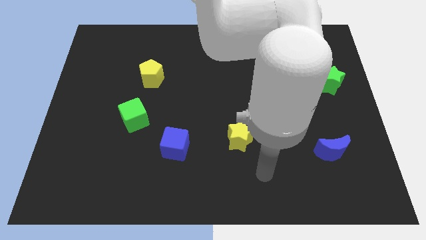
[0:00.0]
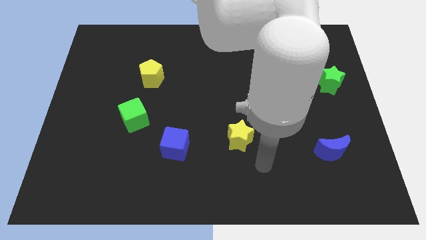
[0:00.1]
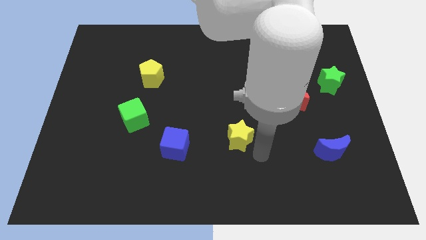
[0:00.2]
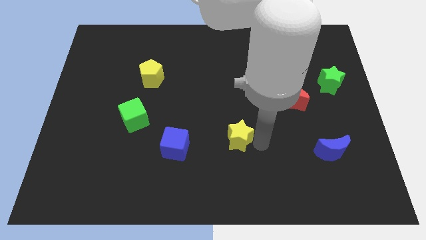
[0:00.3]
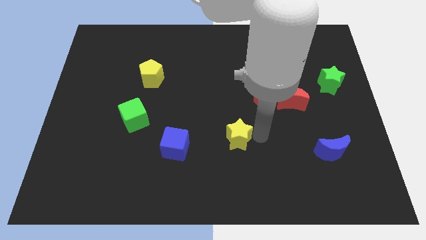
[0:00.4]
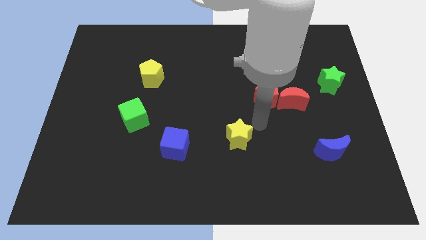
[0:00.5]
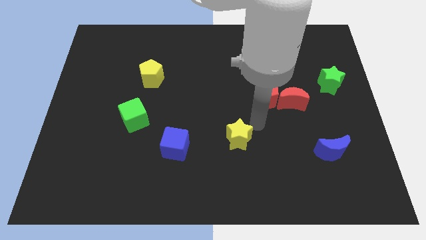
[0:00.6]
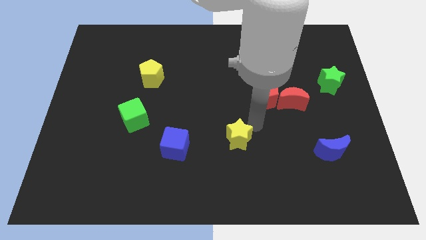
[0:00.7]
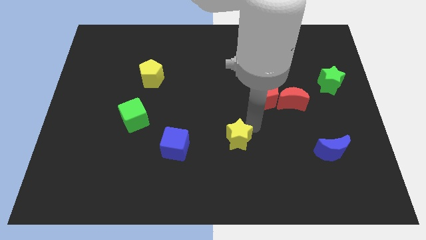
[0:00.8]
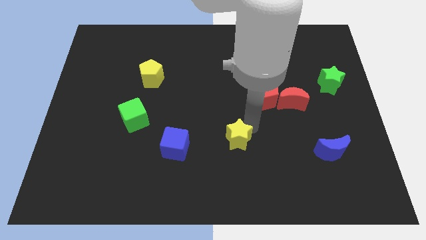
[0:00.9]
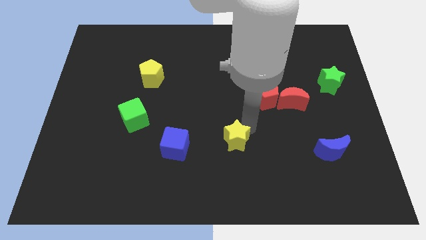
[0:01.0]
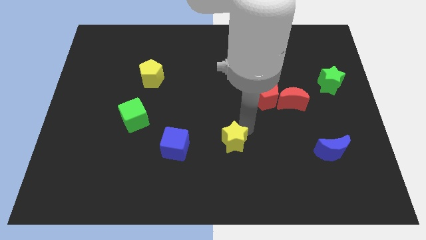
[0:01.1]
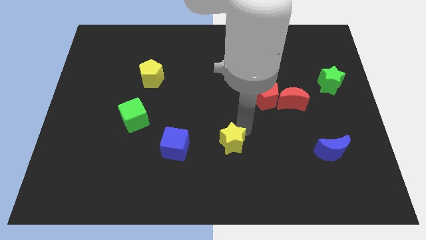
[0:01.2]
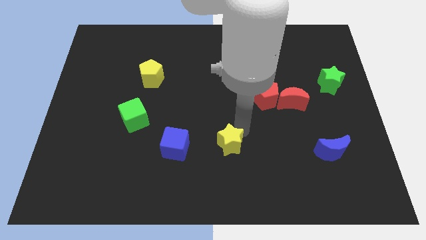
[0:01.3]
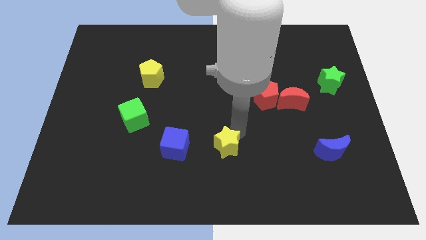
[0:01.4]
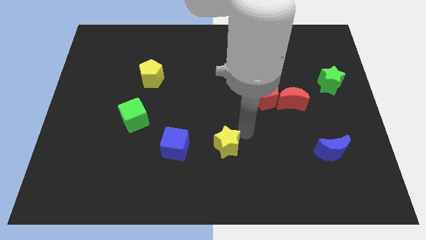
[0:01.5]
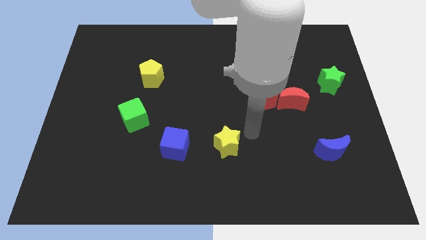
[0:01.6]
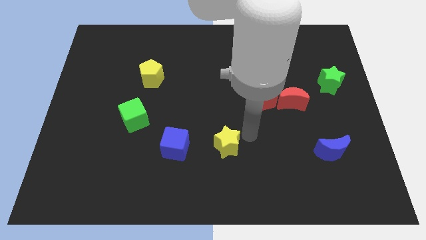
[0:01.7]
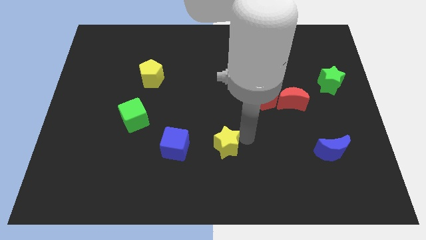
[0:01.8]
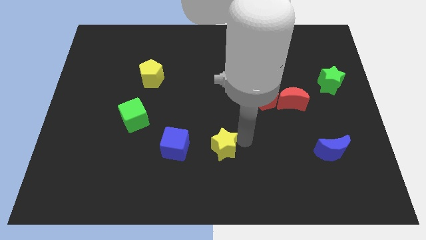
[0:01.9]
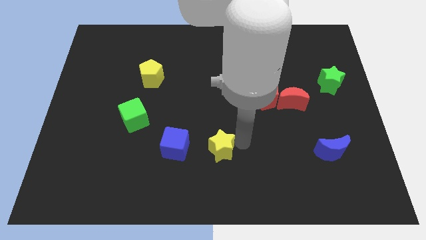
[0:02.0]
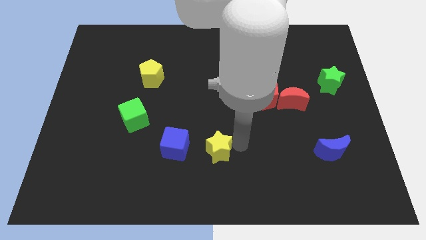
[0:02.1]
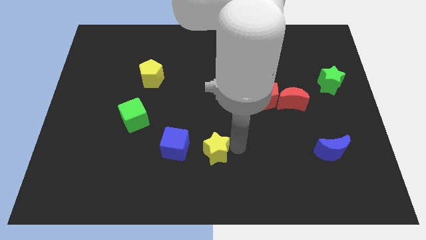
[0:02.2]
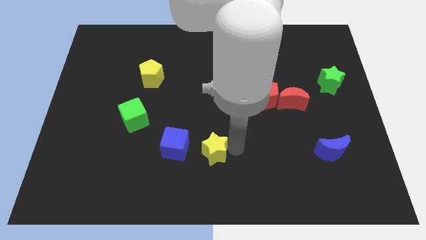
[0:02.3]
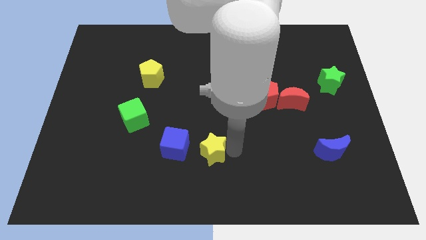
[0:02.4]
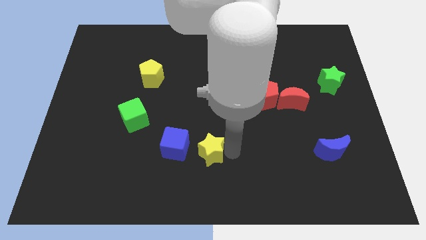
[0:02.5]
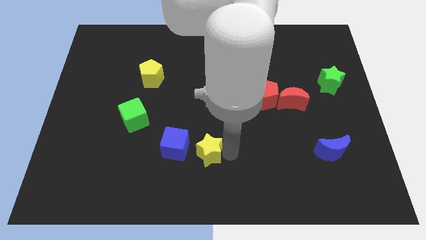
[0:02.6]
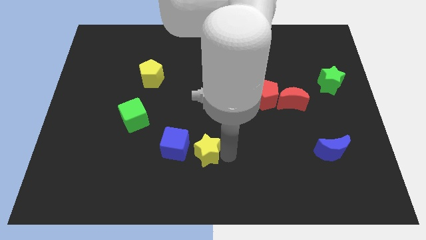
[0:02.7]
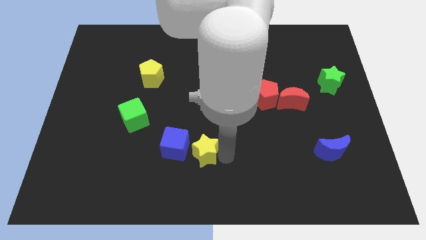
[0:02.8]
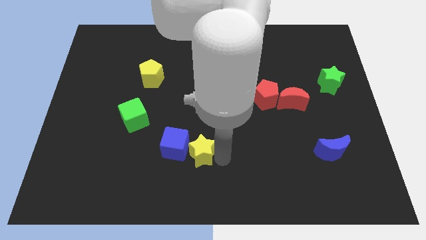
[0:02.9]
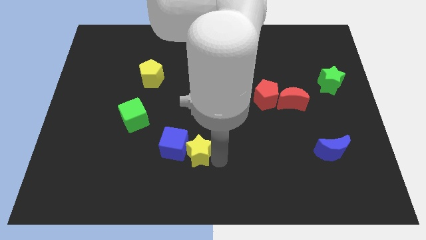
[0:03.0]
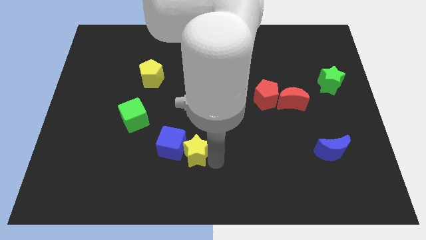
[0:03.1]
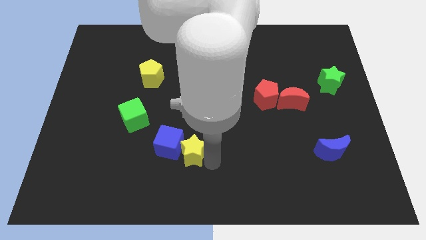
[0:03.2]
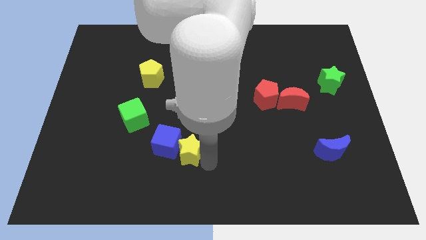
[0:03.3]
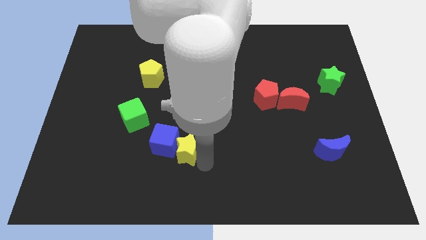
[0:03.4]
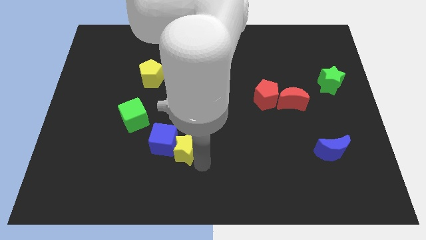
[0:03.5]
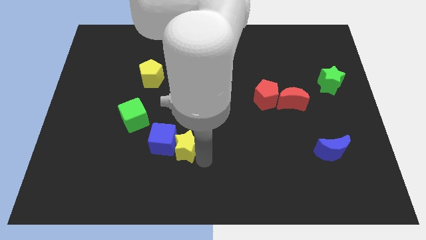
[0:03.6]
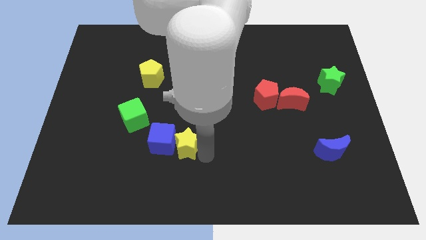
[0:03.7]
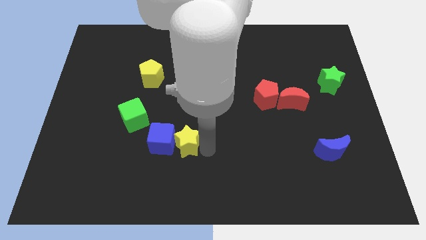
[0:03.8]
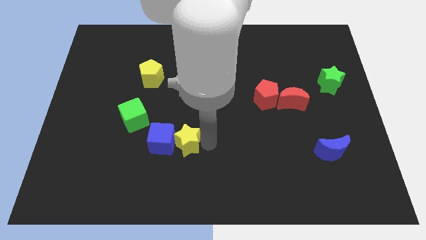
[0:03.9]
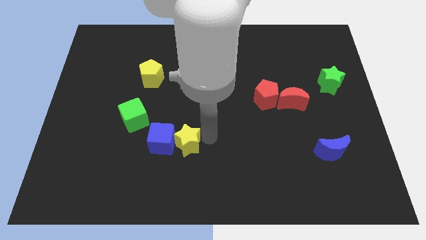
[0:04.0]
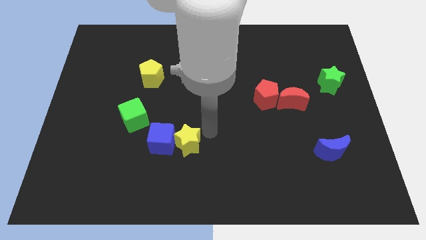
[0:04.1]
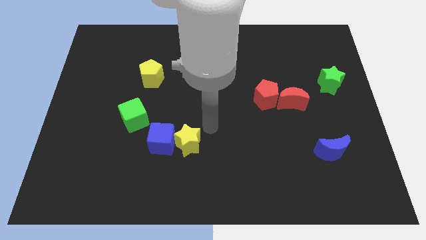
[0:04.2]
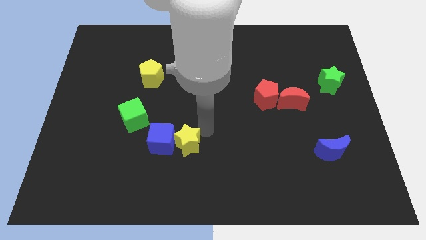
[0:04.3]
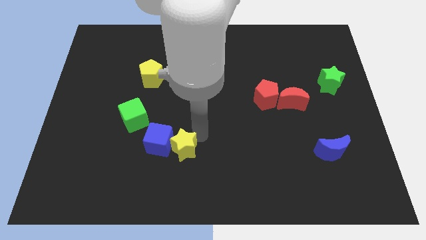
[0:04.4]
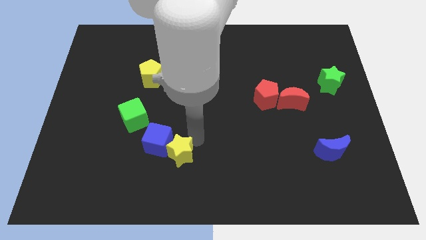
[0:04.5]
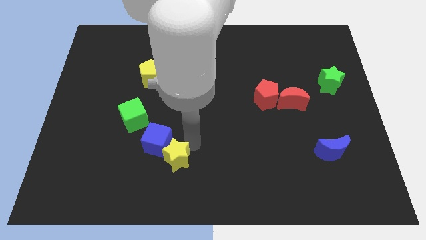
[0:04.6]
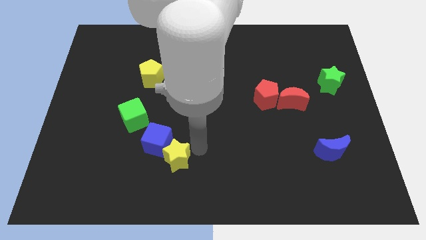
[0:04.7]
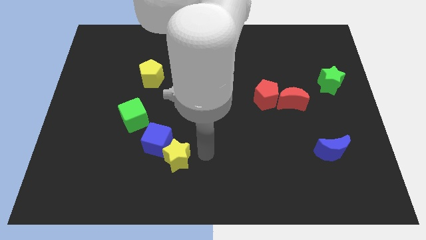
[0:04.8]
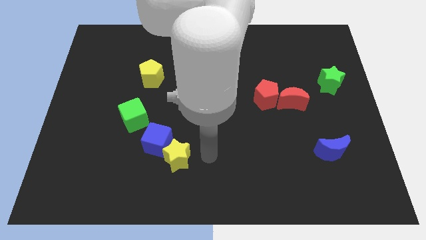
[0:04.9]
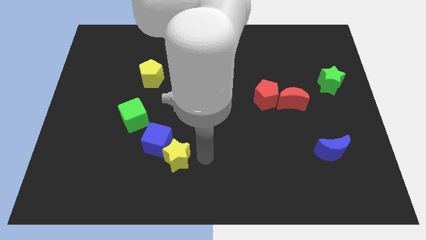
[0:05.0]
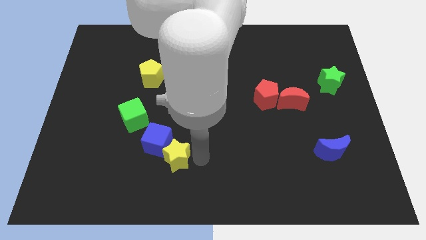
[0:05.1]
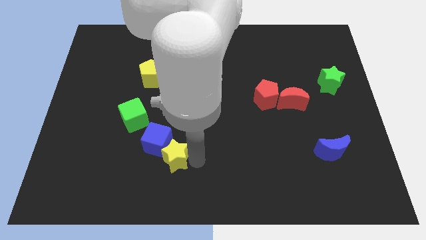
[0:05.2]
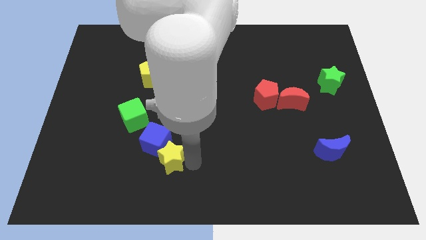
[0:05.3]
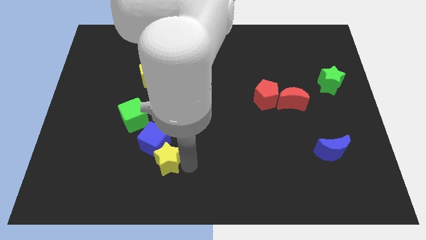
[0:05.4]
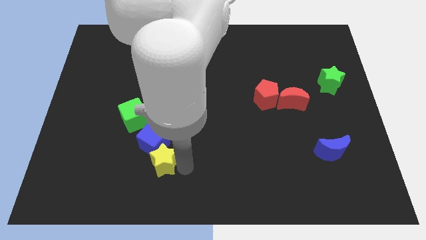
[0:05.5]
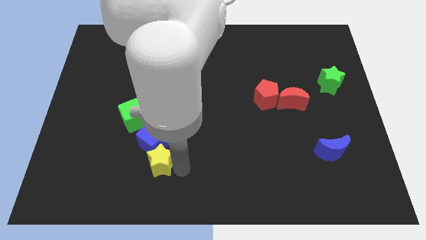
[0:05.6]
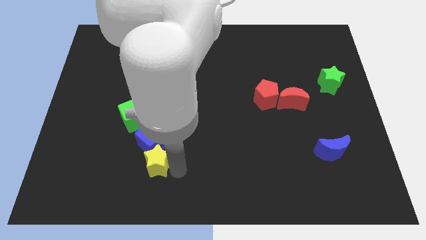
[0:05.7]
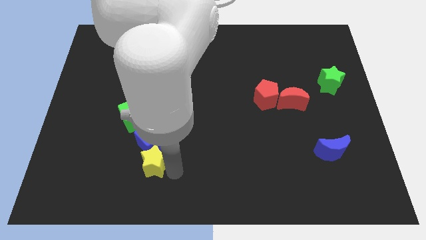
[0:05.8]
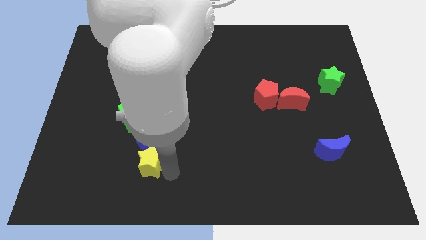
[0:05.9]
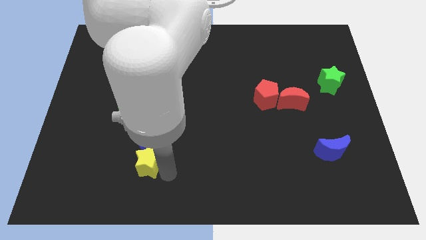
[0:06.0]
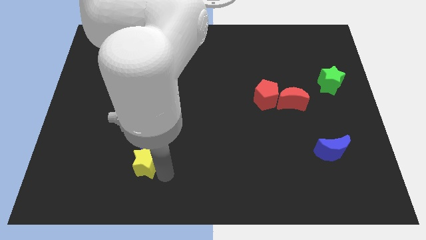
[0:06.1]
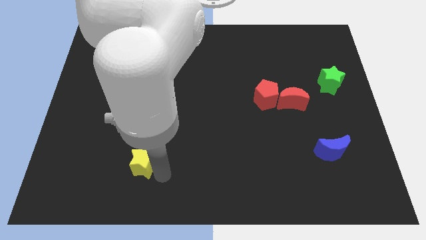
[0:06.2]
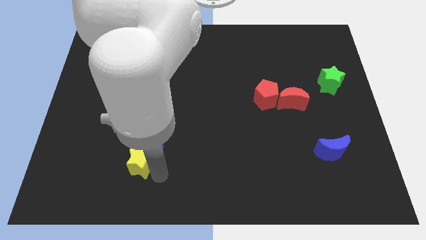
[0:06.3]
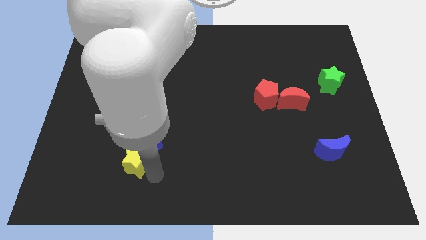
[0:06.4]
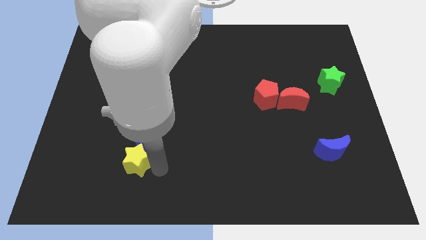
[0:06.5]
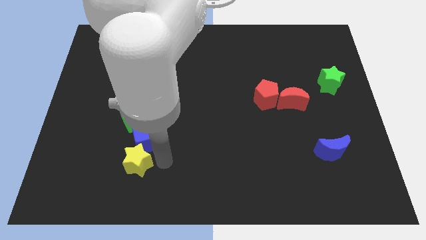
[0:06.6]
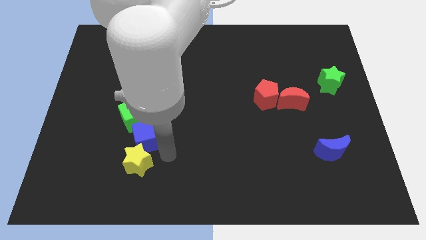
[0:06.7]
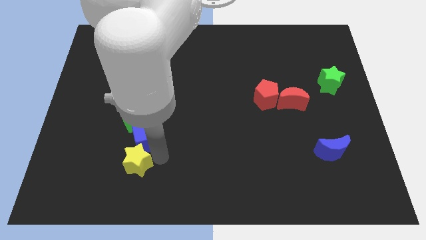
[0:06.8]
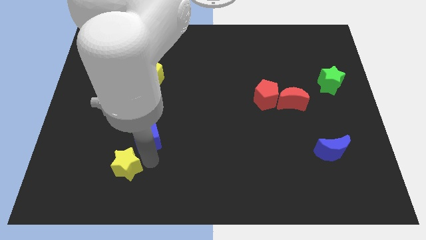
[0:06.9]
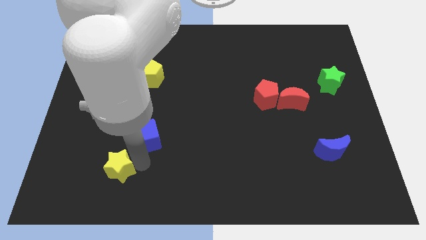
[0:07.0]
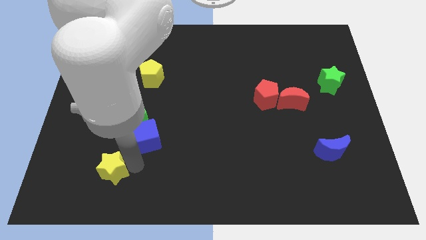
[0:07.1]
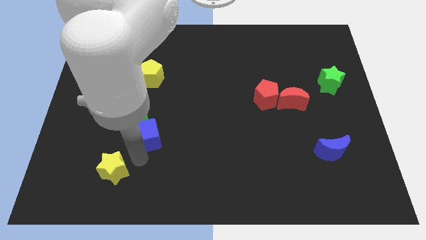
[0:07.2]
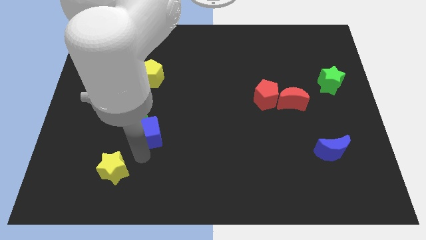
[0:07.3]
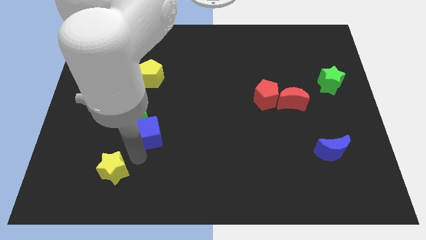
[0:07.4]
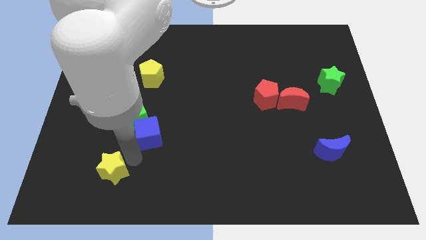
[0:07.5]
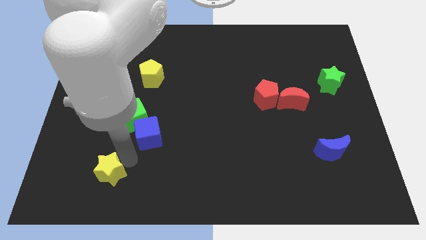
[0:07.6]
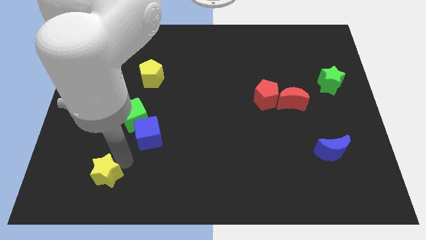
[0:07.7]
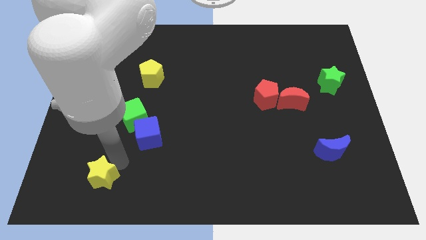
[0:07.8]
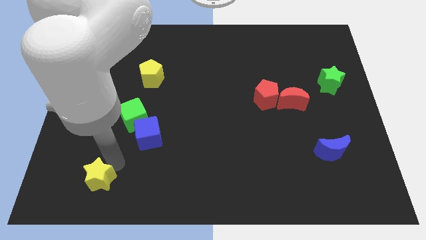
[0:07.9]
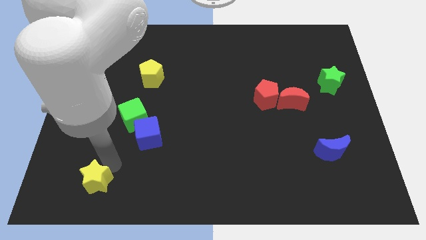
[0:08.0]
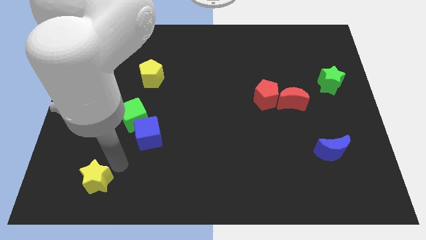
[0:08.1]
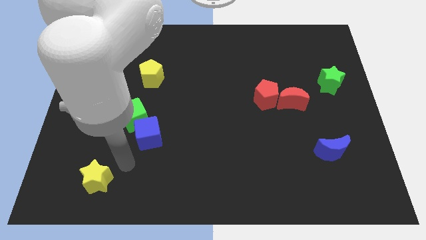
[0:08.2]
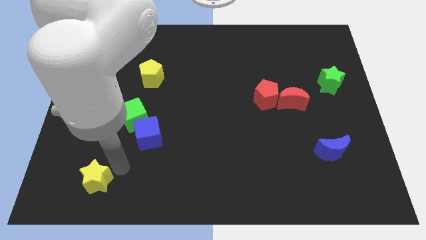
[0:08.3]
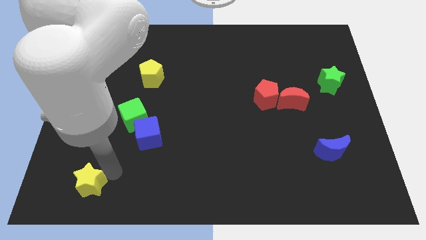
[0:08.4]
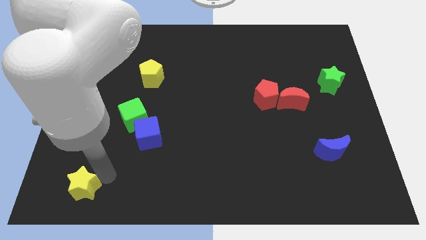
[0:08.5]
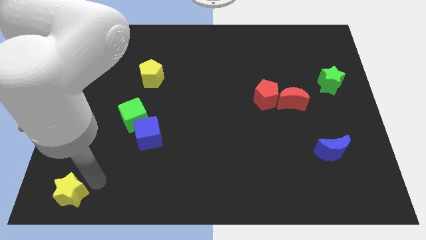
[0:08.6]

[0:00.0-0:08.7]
put the yellow star to the bottom left
